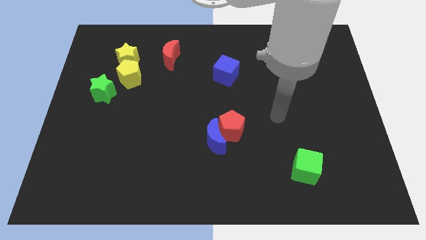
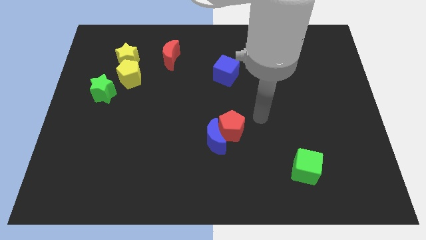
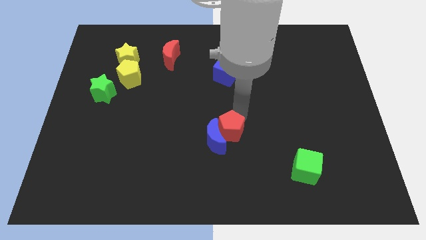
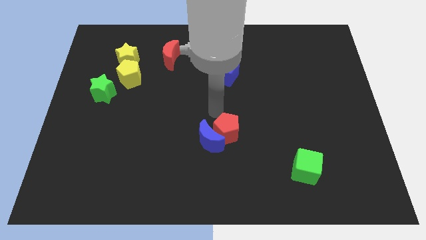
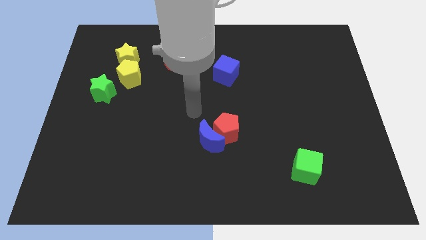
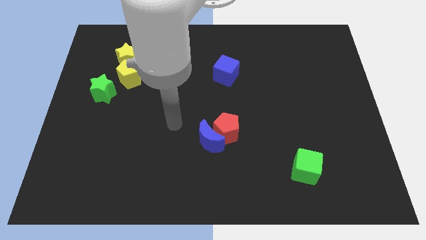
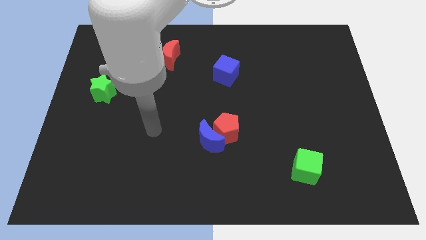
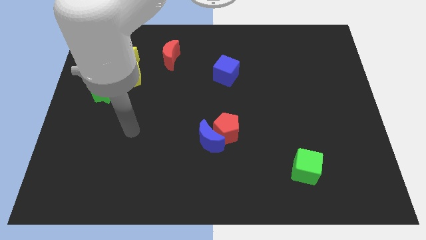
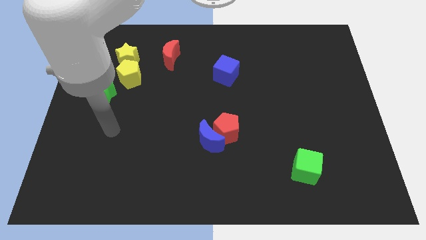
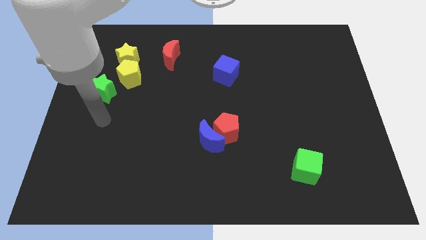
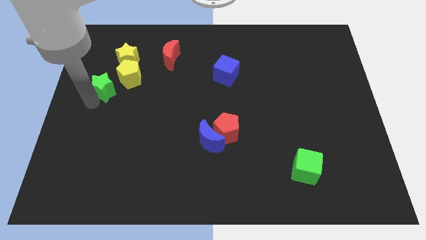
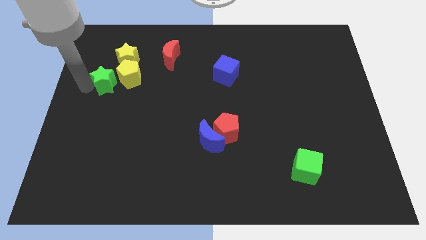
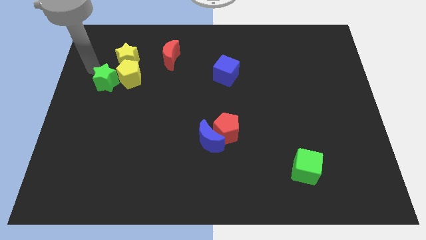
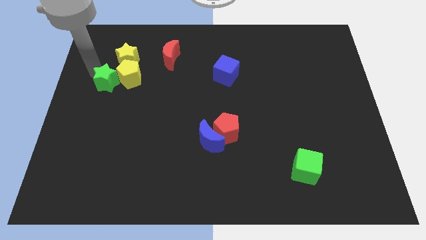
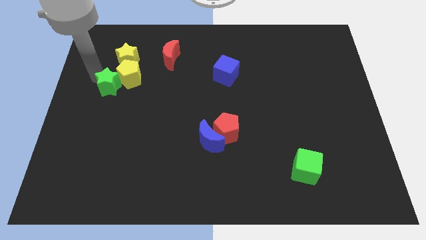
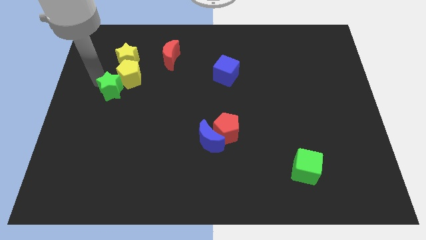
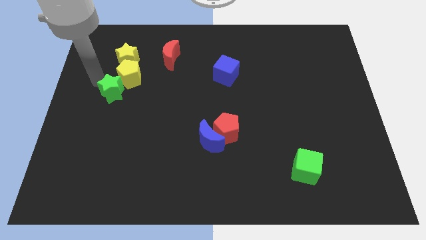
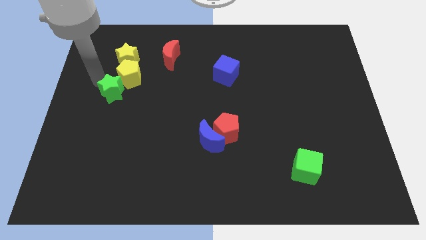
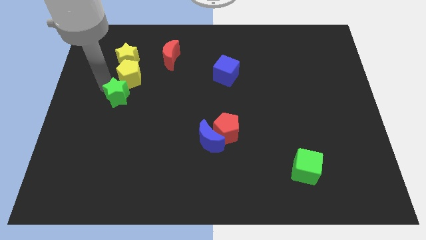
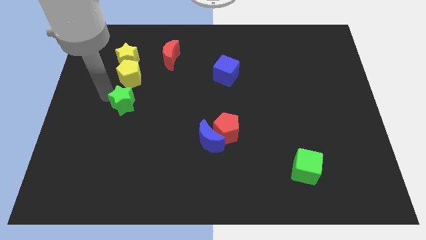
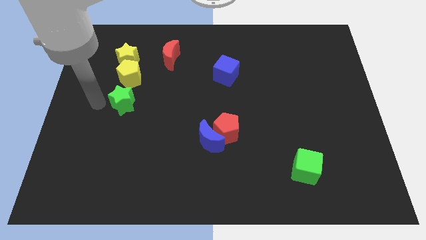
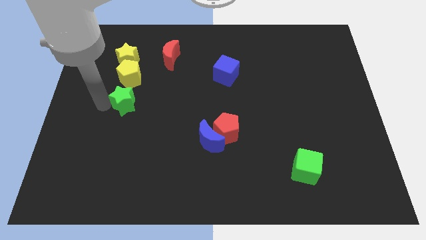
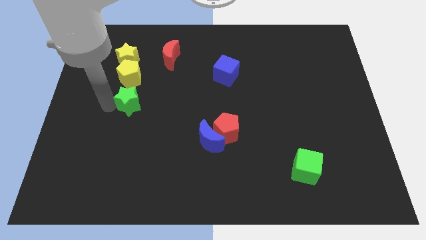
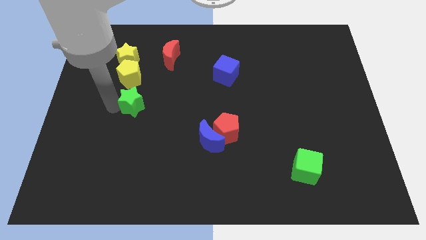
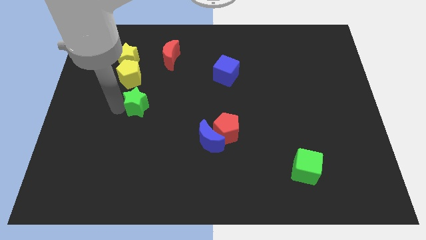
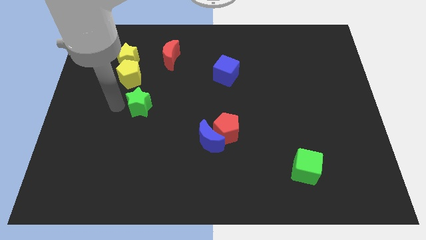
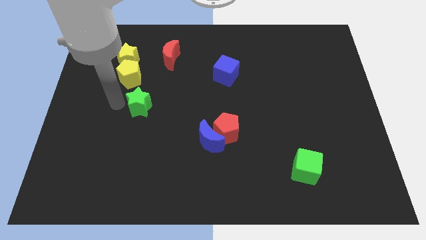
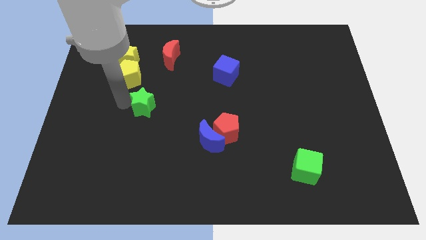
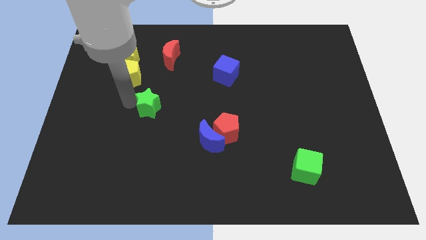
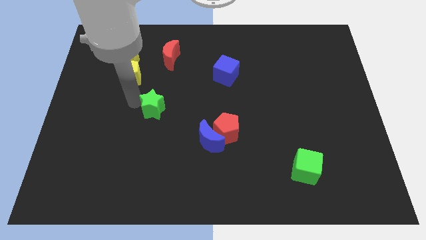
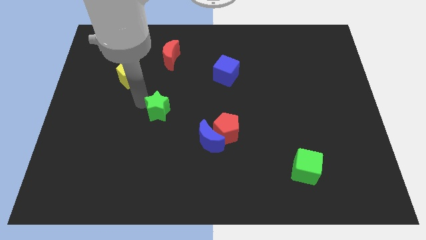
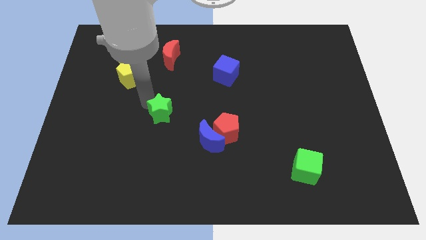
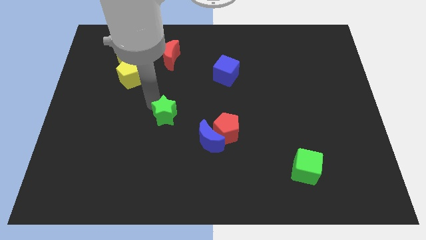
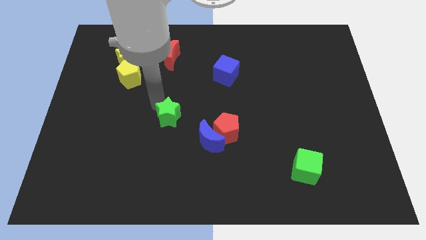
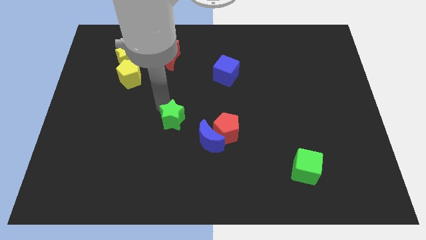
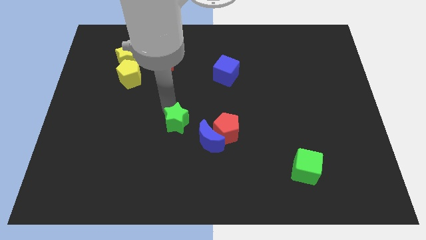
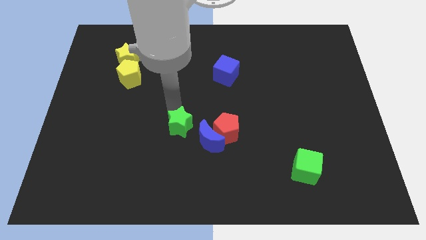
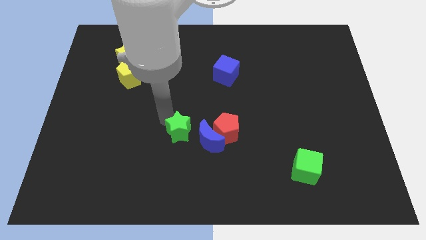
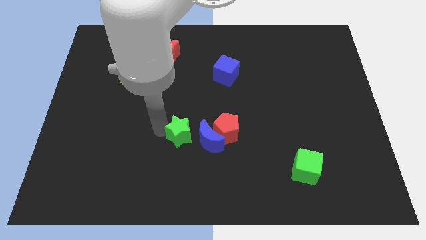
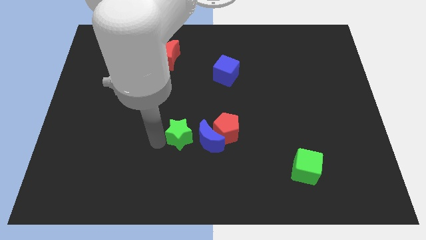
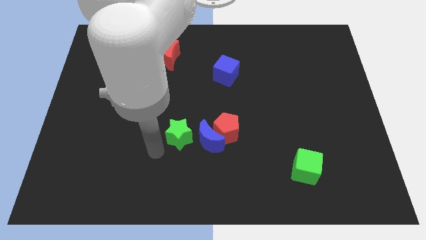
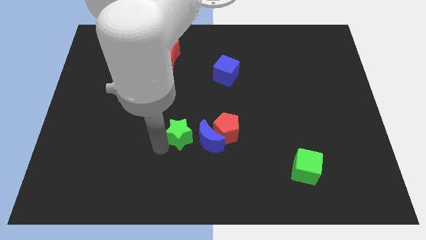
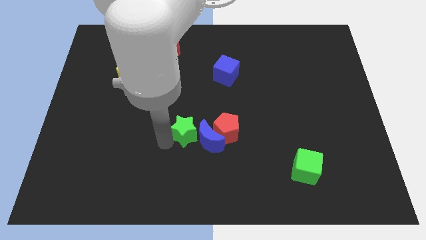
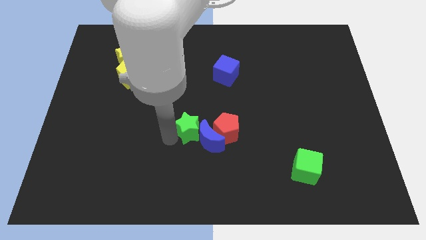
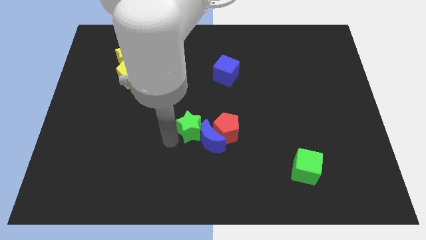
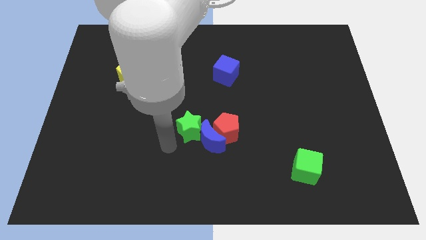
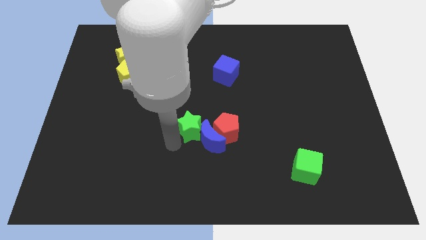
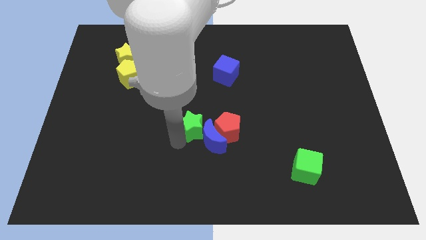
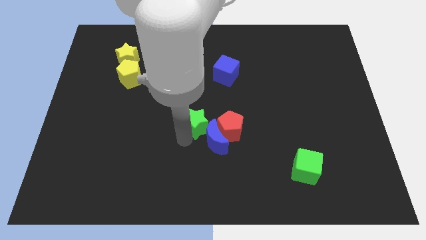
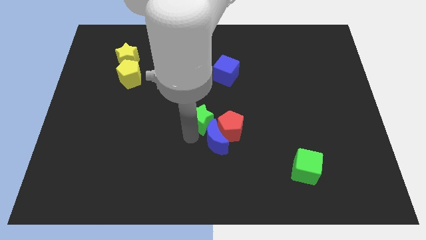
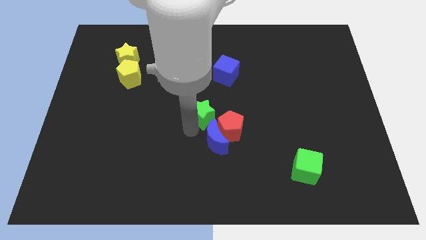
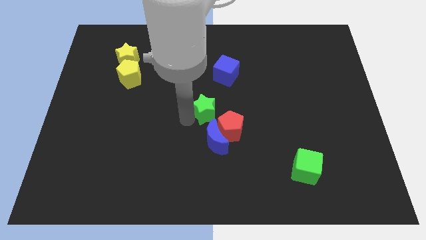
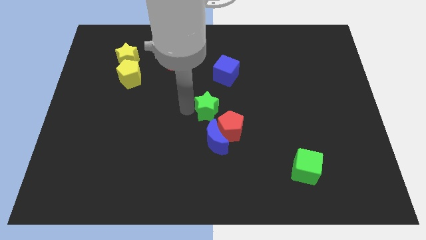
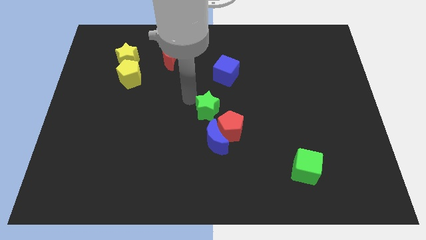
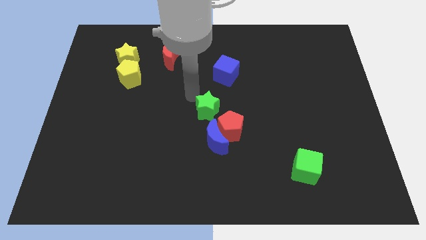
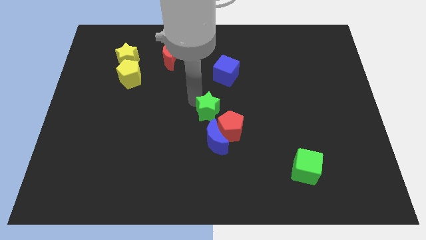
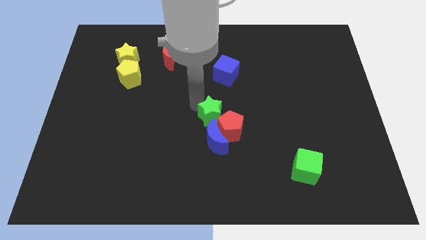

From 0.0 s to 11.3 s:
put the green star towards the red pentagon

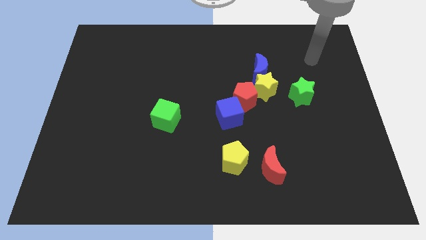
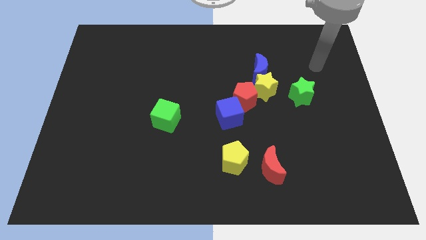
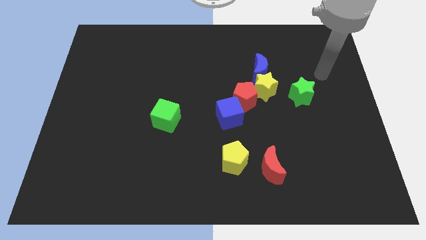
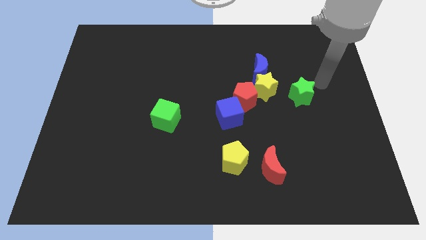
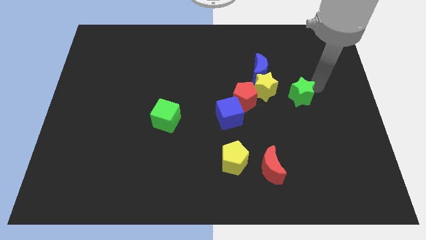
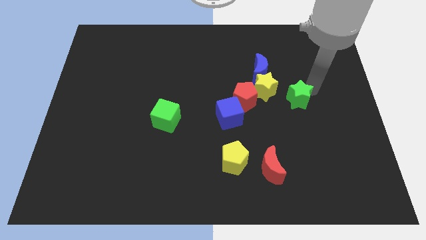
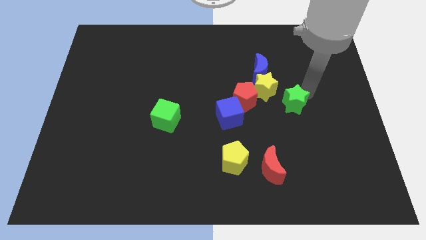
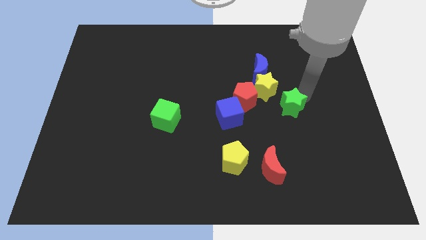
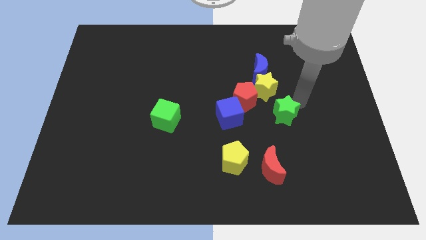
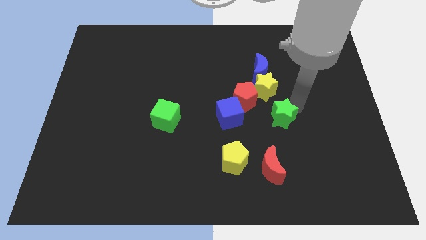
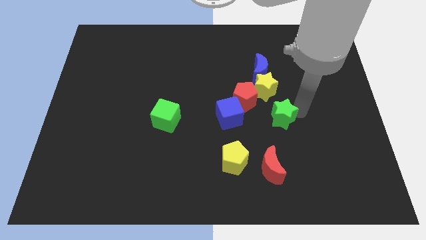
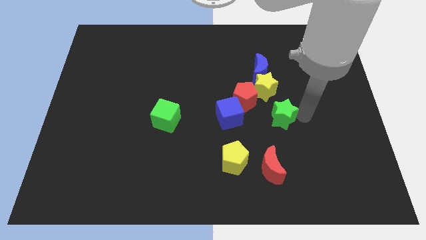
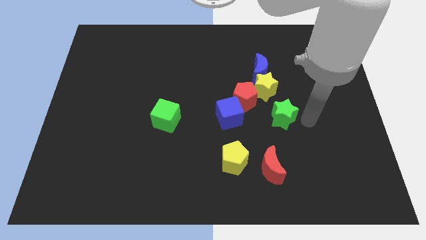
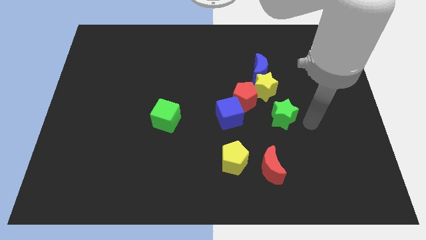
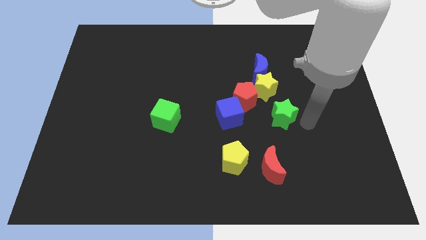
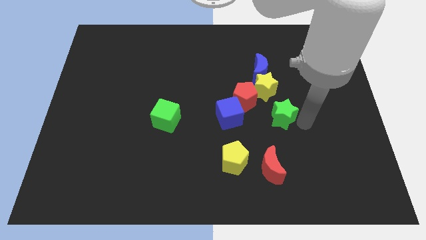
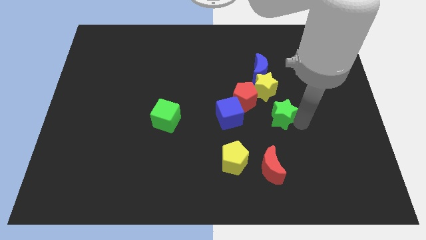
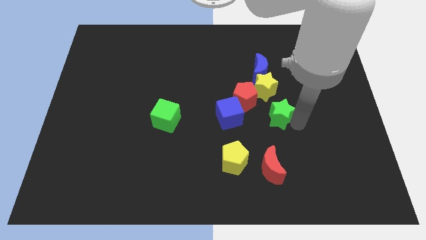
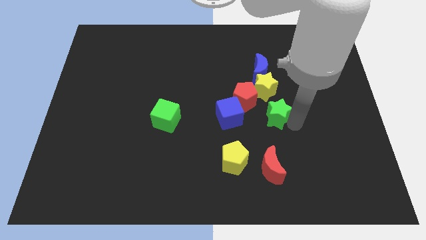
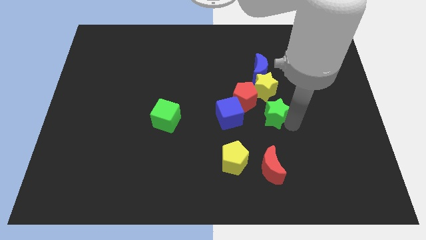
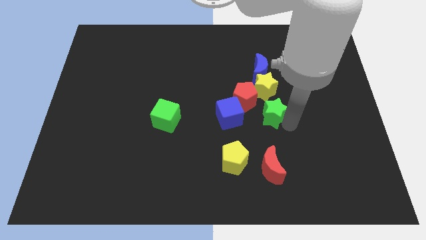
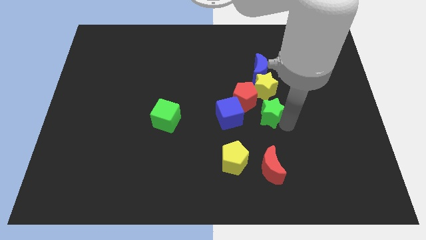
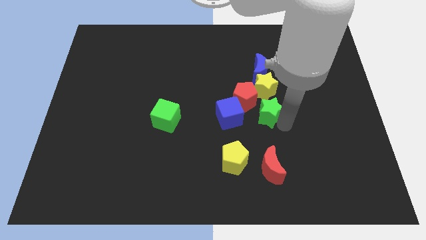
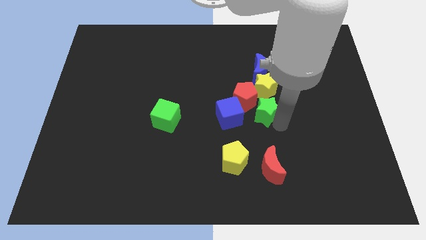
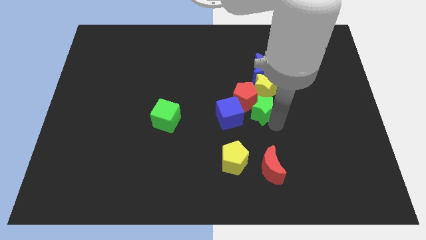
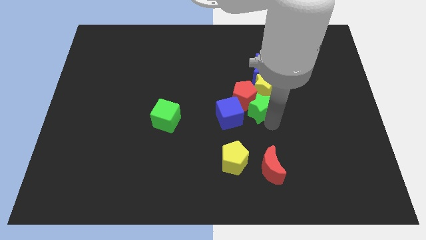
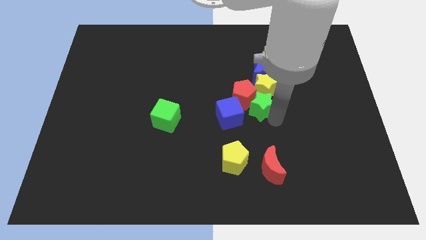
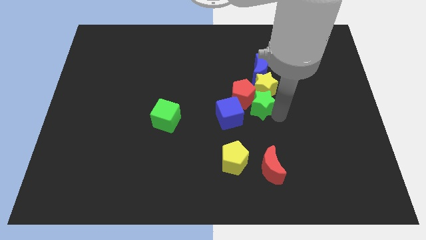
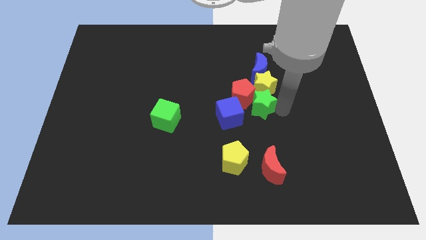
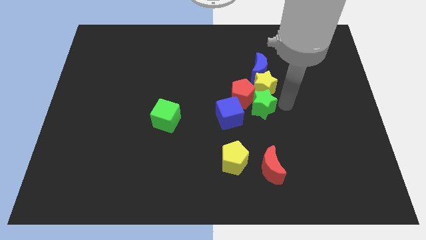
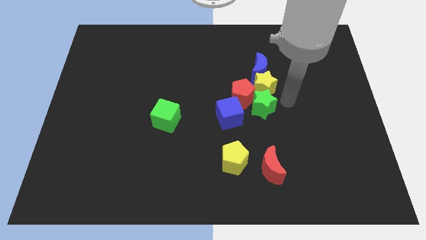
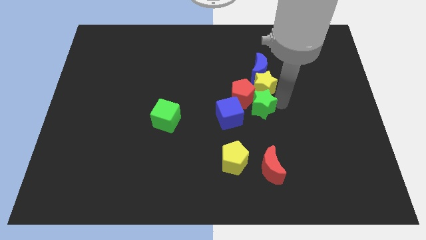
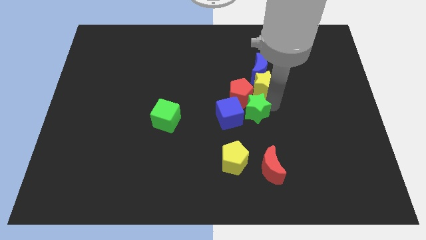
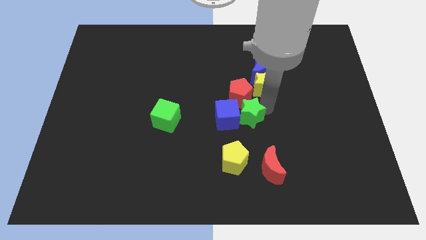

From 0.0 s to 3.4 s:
put the green star to the blue cube
